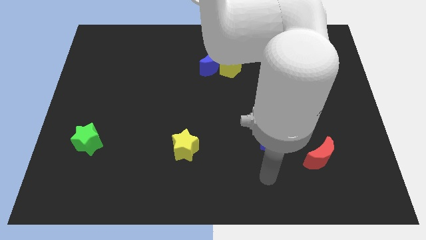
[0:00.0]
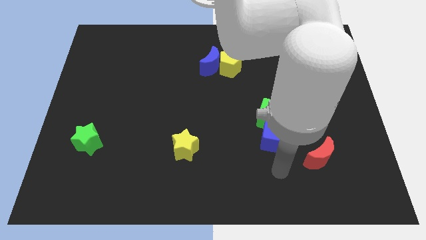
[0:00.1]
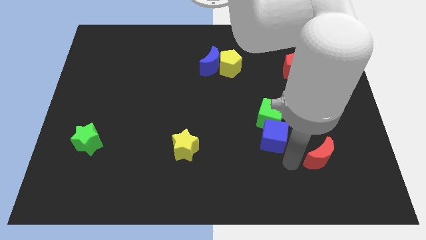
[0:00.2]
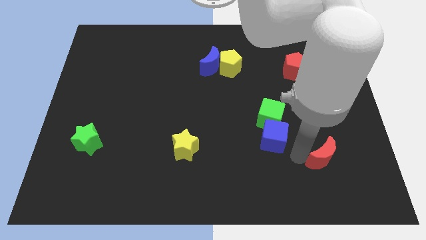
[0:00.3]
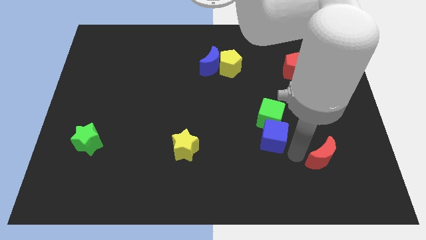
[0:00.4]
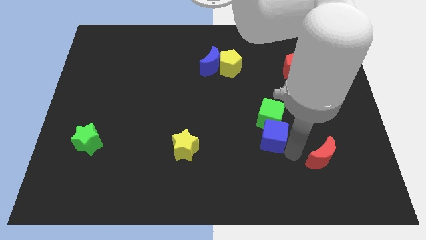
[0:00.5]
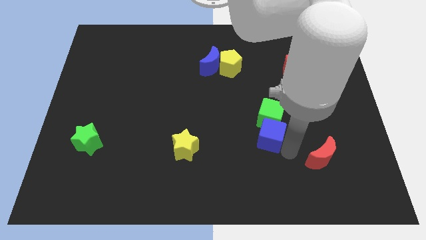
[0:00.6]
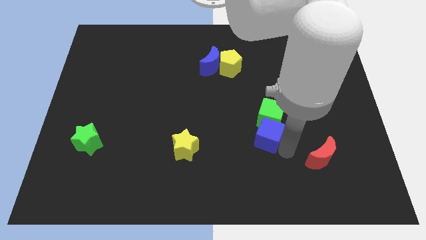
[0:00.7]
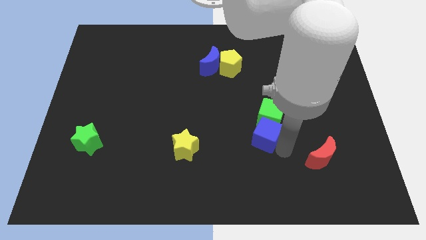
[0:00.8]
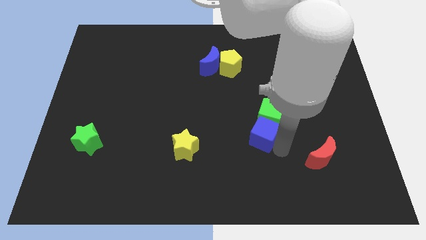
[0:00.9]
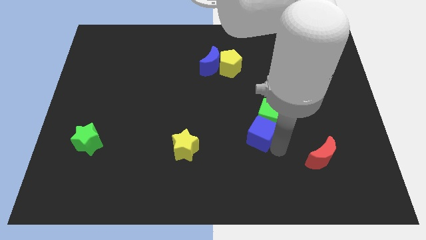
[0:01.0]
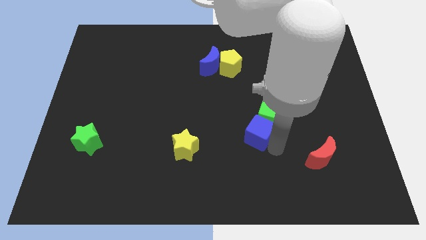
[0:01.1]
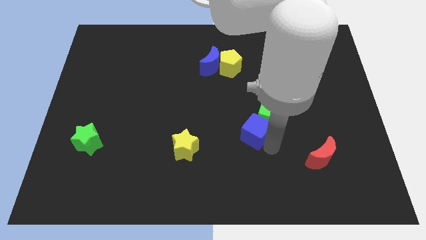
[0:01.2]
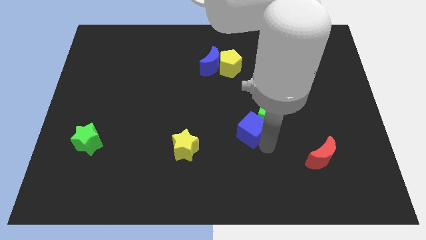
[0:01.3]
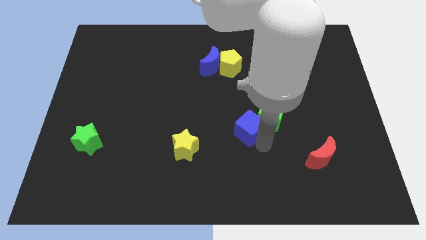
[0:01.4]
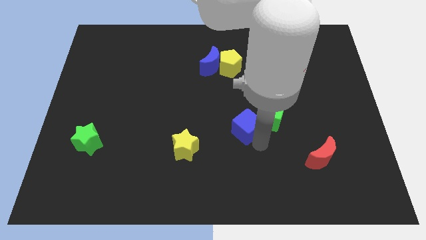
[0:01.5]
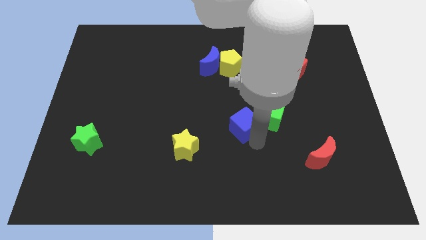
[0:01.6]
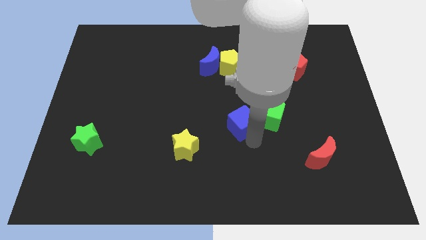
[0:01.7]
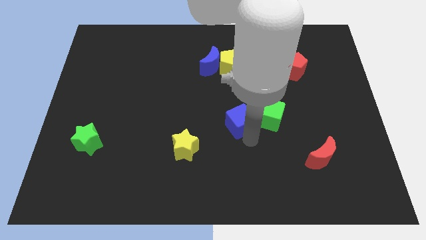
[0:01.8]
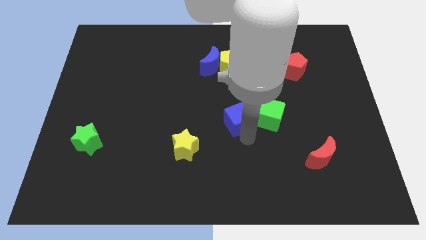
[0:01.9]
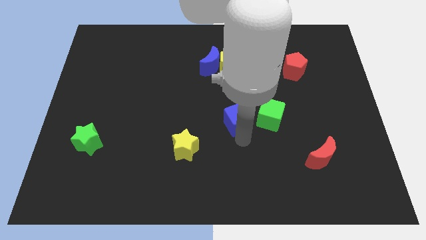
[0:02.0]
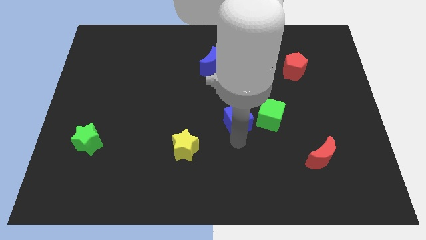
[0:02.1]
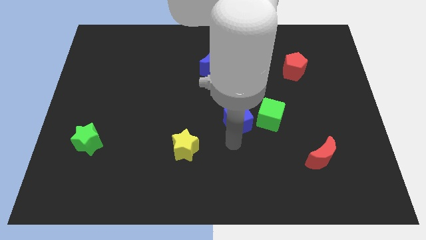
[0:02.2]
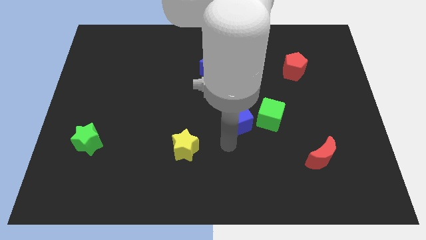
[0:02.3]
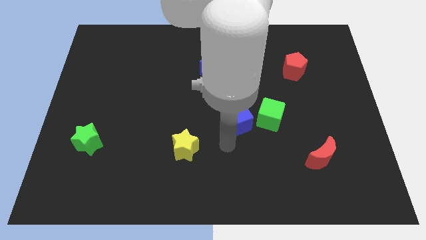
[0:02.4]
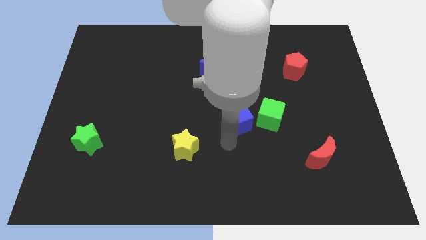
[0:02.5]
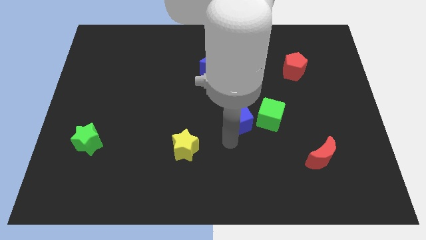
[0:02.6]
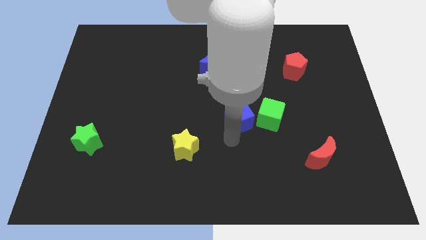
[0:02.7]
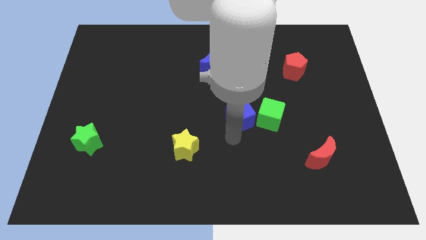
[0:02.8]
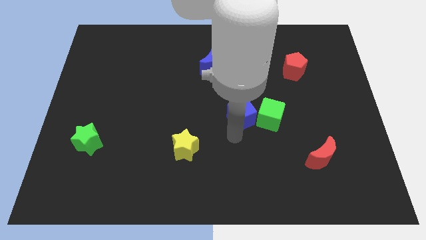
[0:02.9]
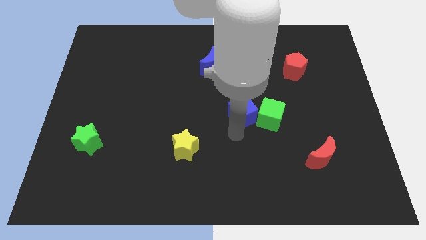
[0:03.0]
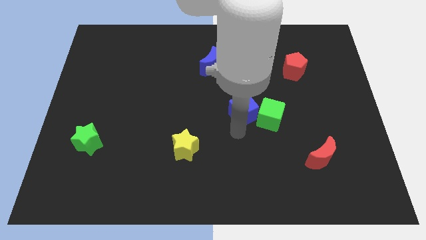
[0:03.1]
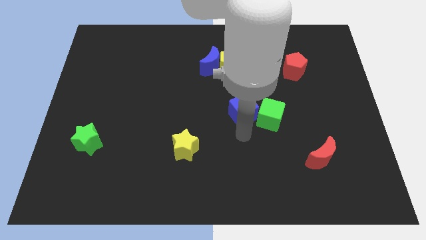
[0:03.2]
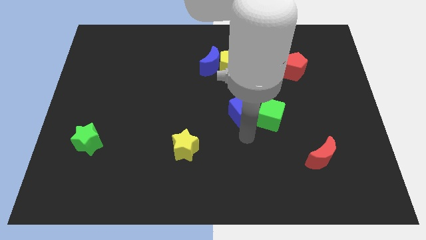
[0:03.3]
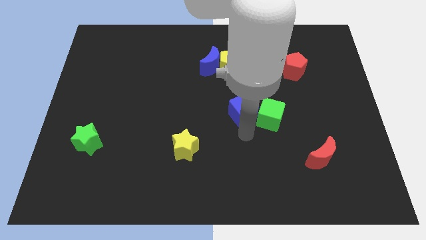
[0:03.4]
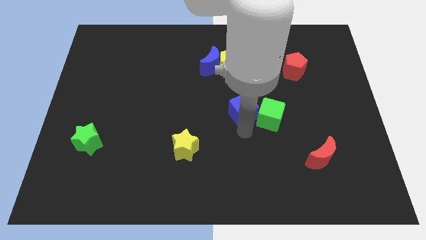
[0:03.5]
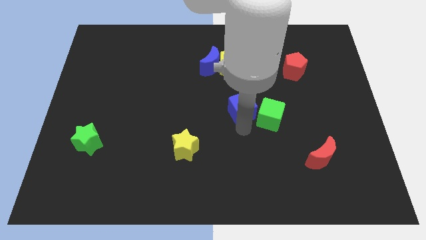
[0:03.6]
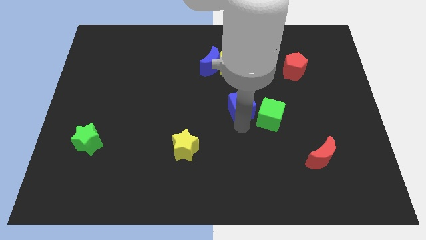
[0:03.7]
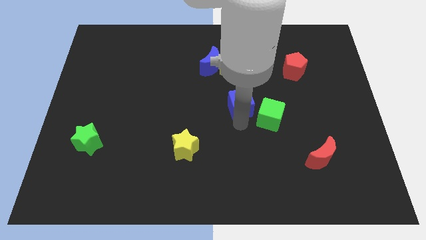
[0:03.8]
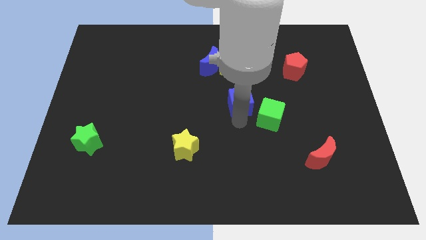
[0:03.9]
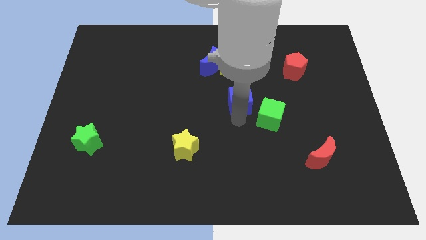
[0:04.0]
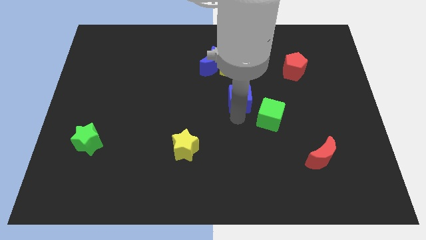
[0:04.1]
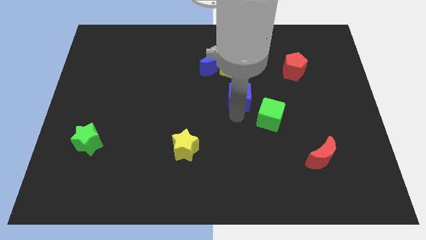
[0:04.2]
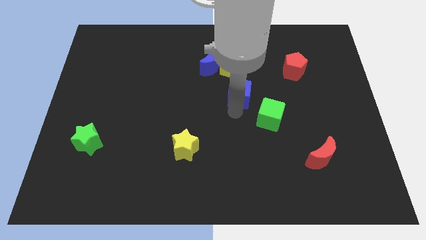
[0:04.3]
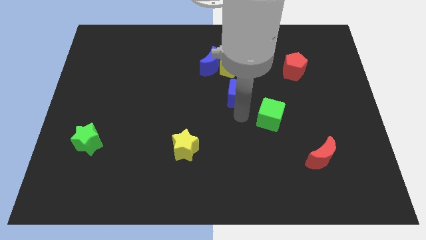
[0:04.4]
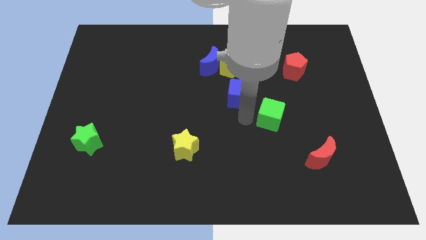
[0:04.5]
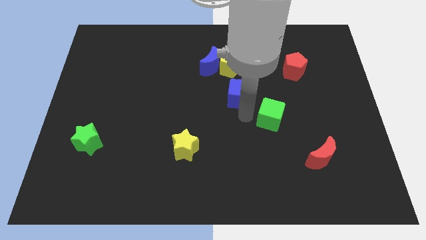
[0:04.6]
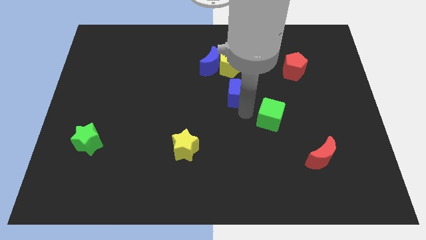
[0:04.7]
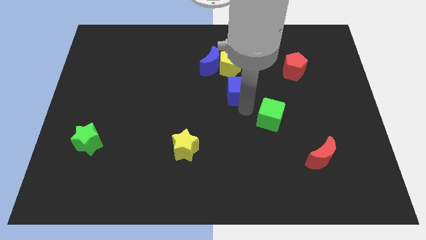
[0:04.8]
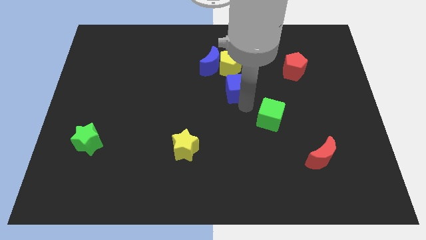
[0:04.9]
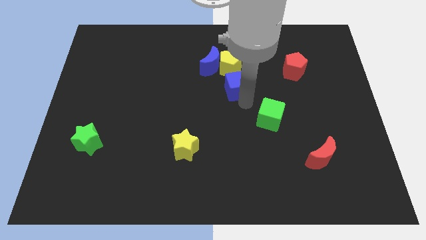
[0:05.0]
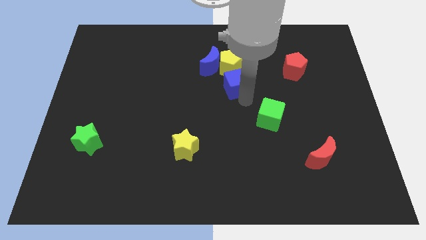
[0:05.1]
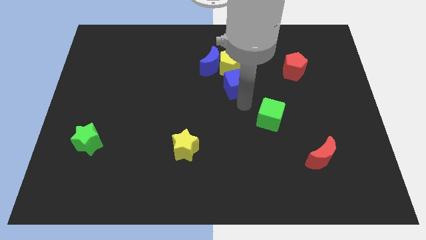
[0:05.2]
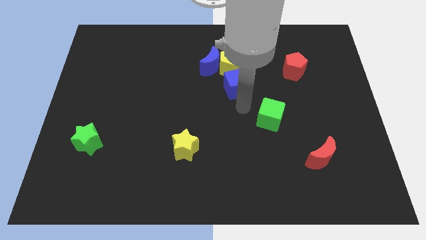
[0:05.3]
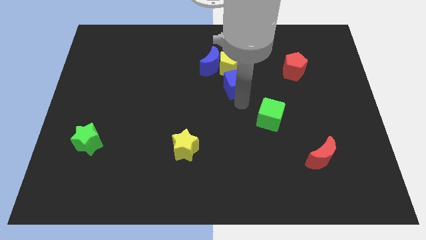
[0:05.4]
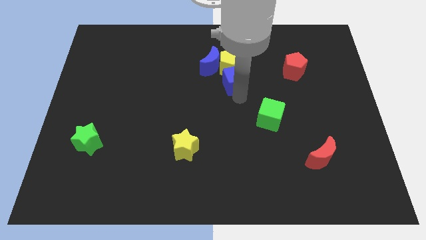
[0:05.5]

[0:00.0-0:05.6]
move the blue cube next to the yellow pentagon

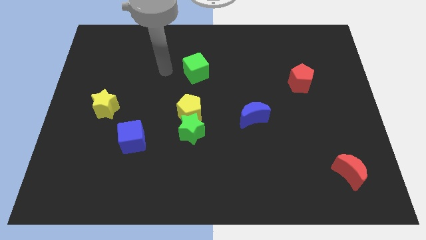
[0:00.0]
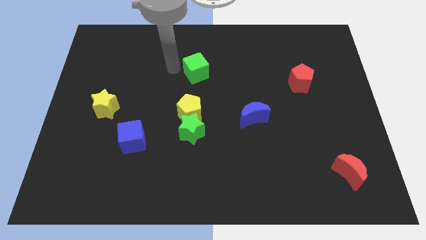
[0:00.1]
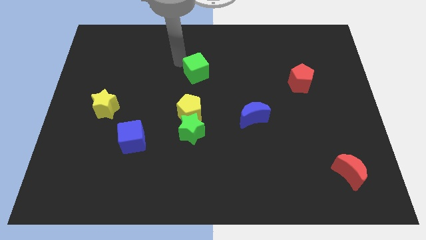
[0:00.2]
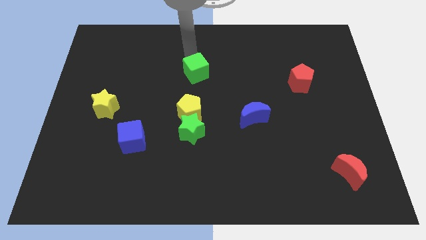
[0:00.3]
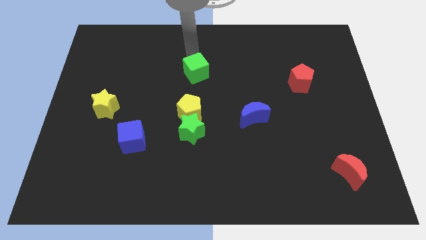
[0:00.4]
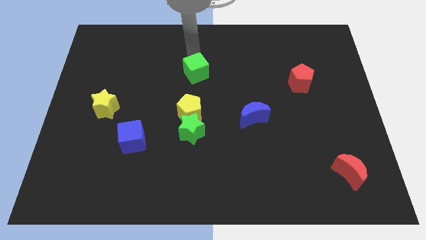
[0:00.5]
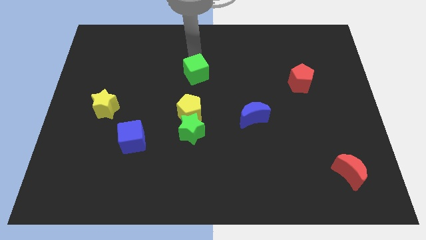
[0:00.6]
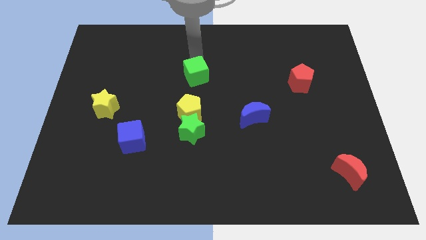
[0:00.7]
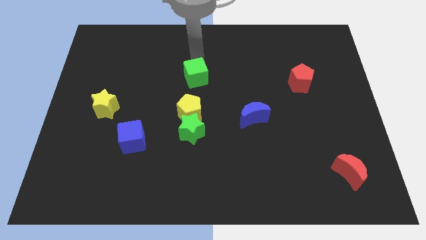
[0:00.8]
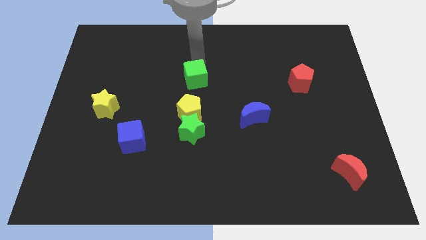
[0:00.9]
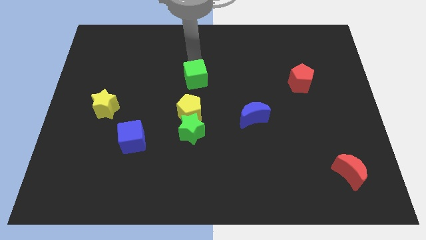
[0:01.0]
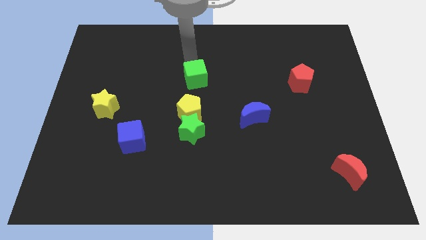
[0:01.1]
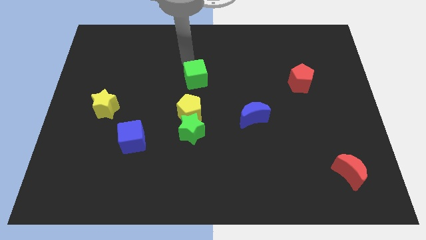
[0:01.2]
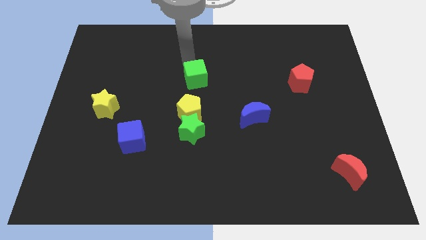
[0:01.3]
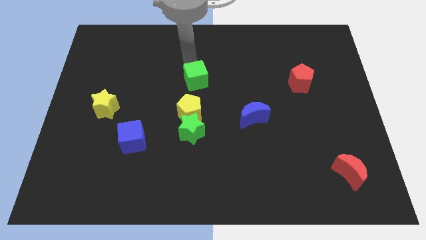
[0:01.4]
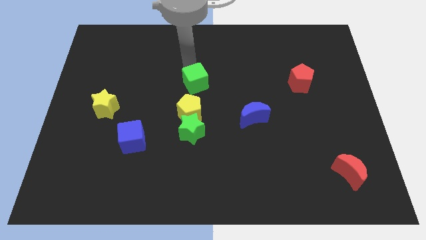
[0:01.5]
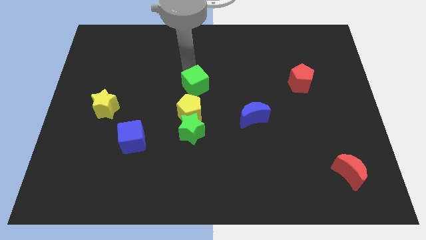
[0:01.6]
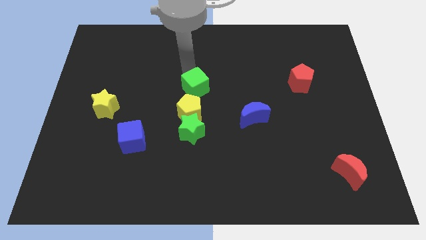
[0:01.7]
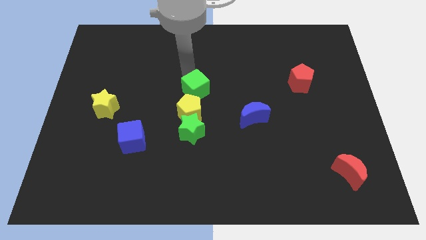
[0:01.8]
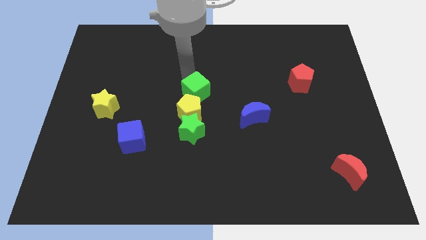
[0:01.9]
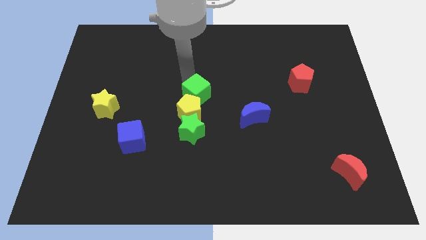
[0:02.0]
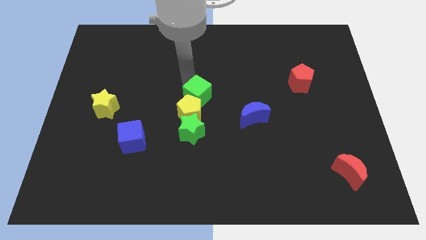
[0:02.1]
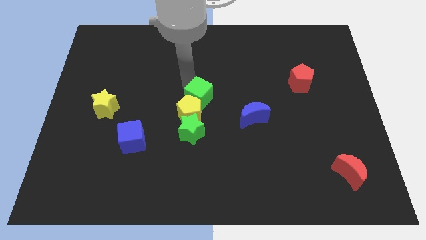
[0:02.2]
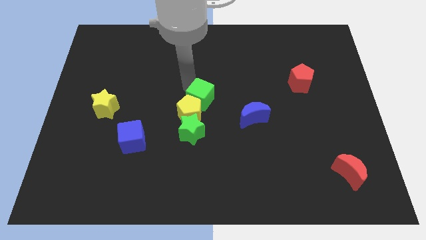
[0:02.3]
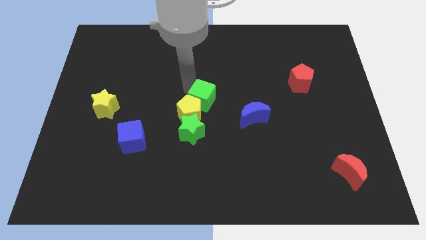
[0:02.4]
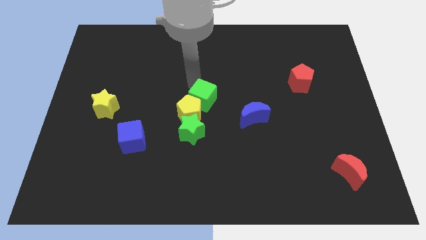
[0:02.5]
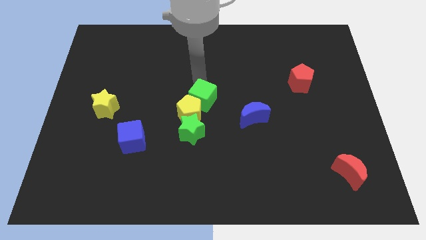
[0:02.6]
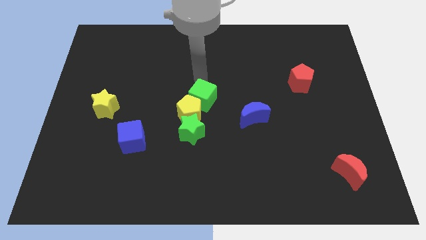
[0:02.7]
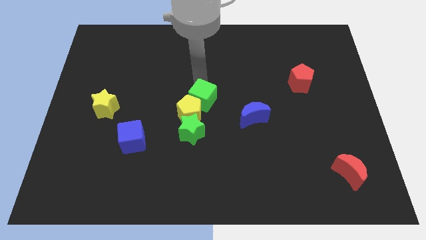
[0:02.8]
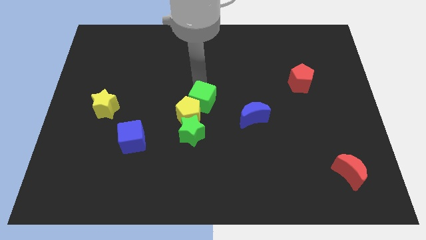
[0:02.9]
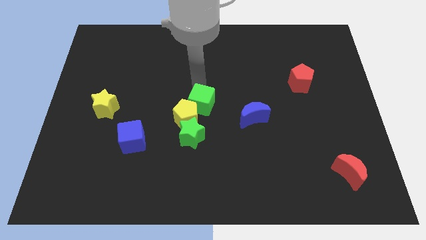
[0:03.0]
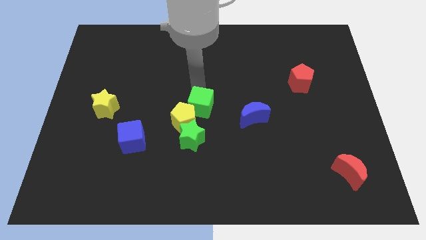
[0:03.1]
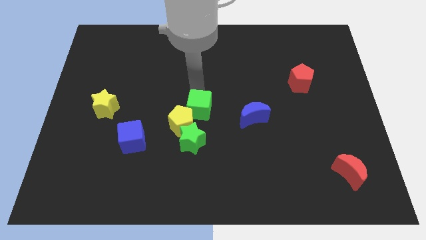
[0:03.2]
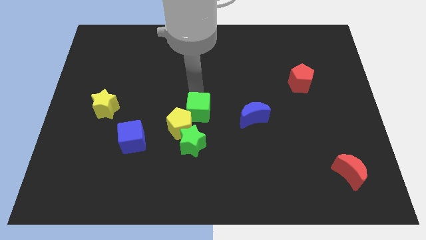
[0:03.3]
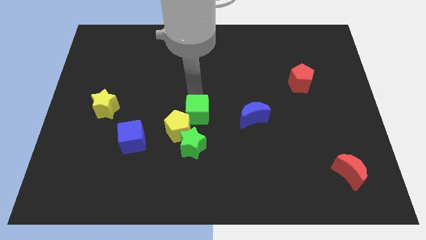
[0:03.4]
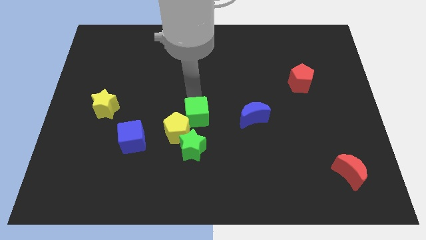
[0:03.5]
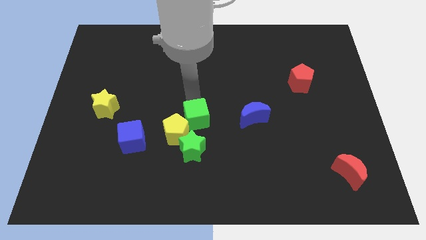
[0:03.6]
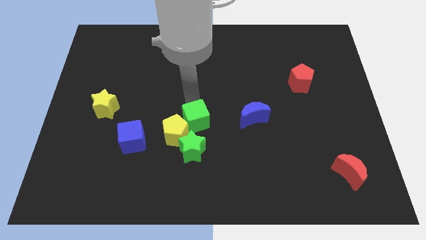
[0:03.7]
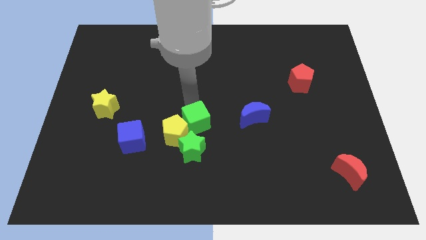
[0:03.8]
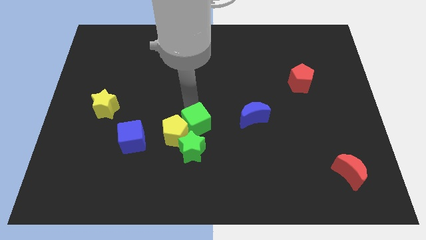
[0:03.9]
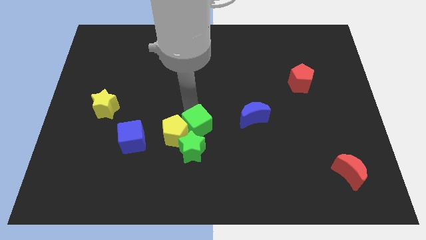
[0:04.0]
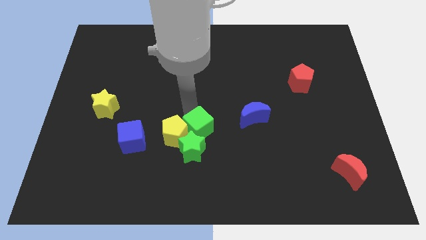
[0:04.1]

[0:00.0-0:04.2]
push the green cube towards the green star
